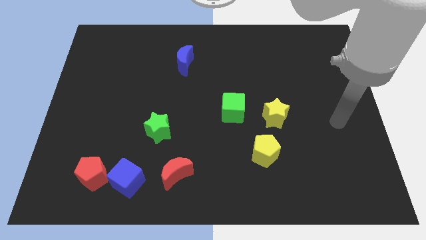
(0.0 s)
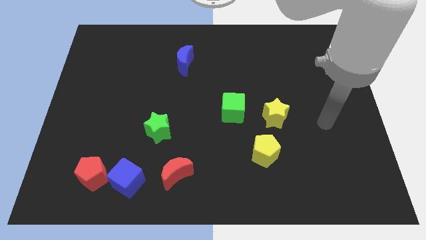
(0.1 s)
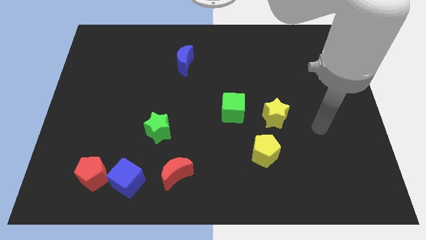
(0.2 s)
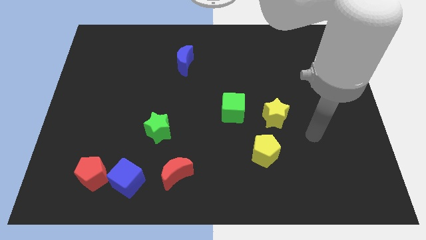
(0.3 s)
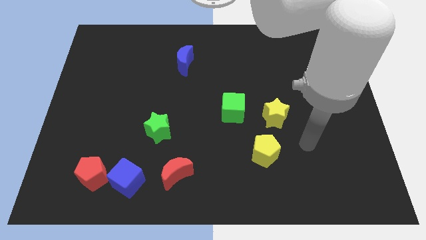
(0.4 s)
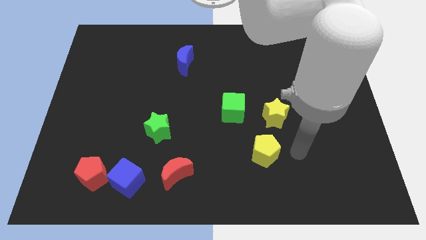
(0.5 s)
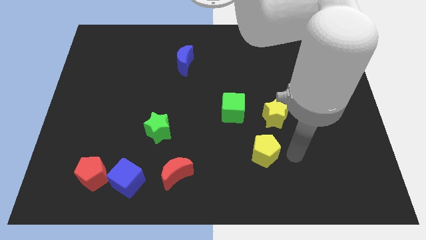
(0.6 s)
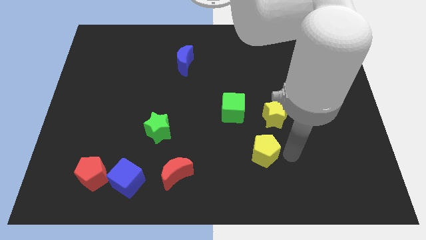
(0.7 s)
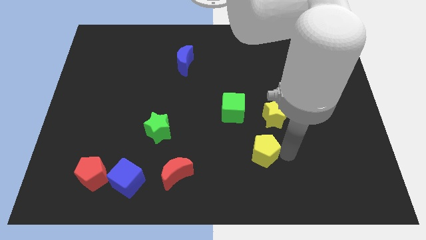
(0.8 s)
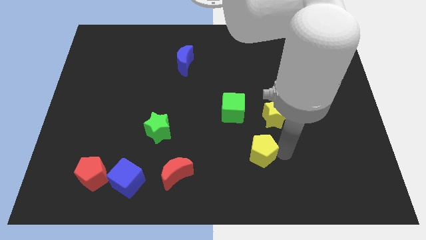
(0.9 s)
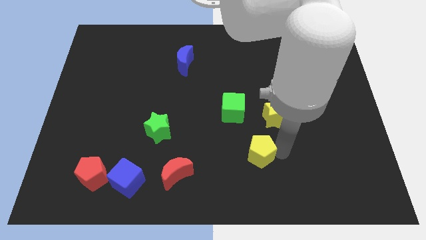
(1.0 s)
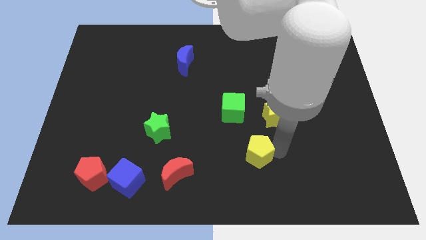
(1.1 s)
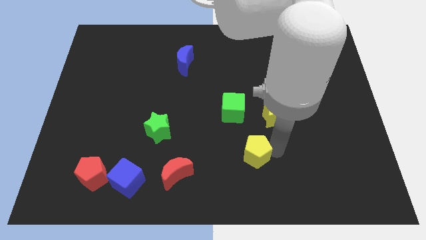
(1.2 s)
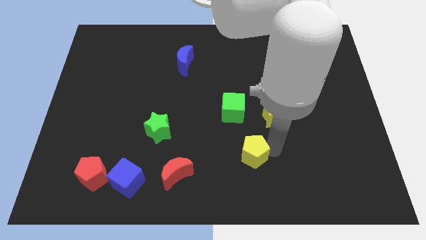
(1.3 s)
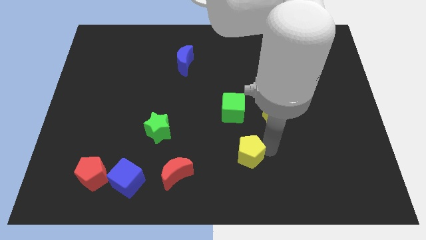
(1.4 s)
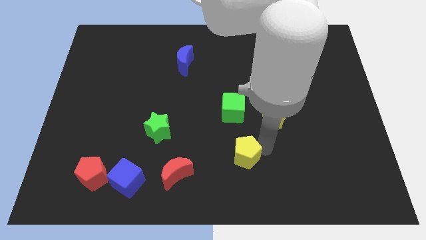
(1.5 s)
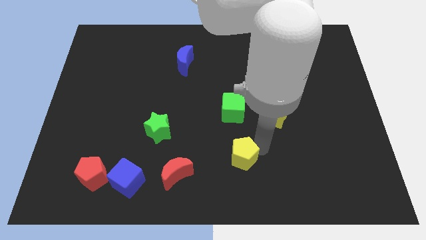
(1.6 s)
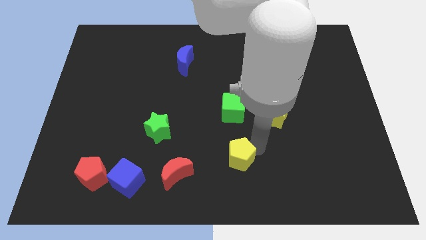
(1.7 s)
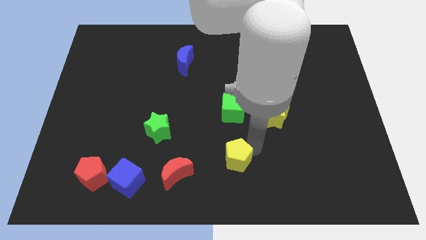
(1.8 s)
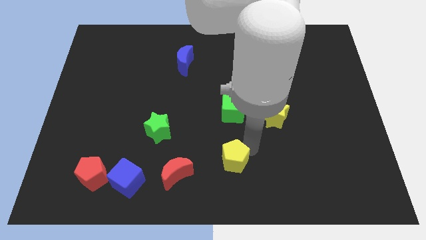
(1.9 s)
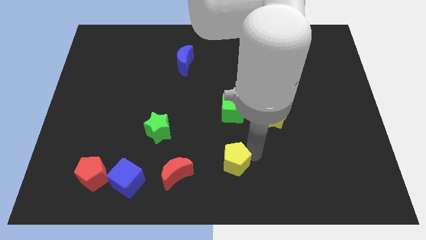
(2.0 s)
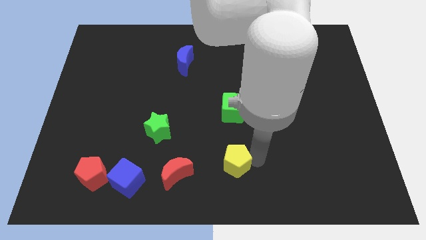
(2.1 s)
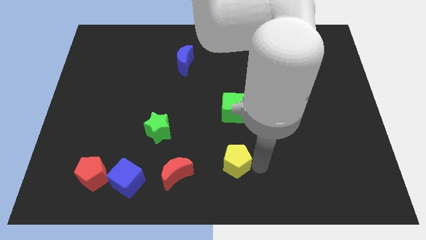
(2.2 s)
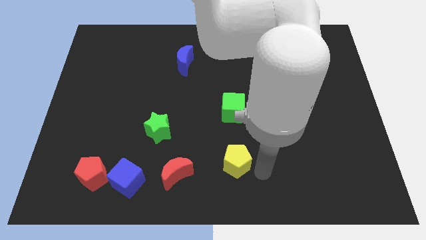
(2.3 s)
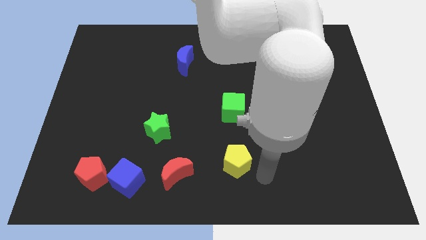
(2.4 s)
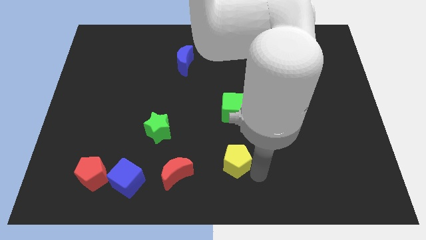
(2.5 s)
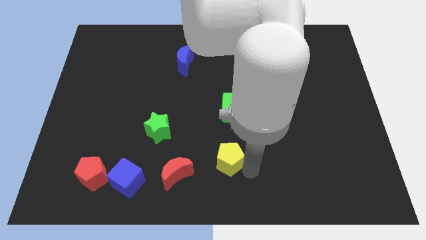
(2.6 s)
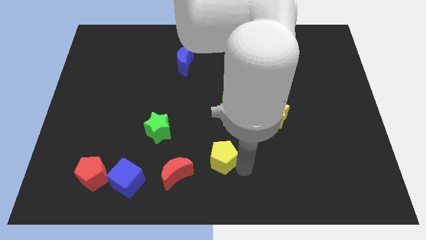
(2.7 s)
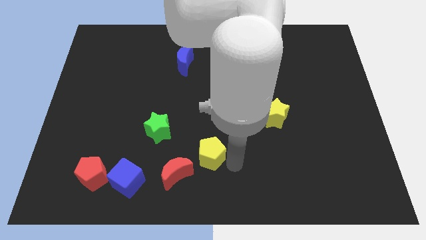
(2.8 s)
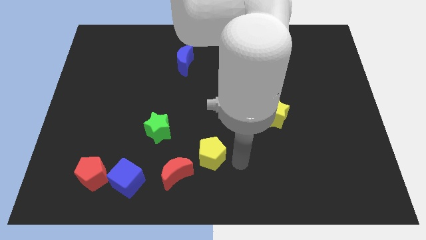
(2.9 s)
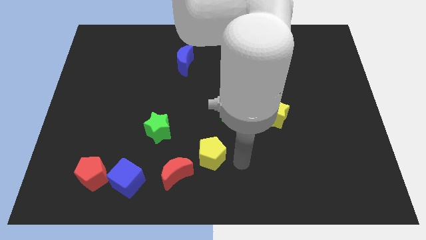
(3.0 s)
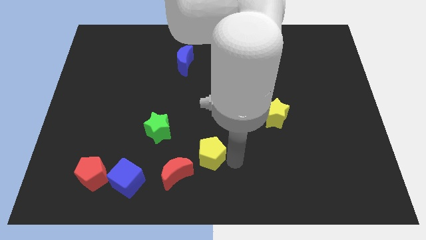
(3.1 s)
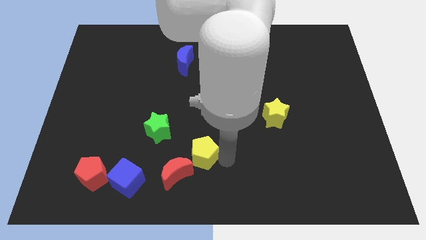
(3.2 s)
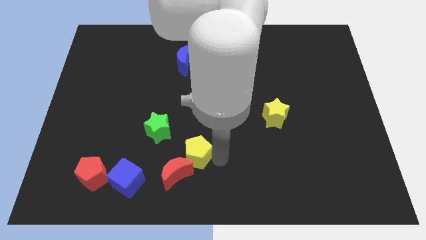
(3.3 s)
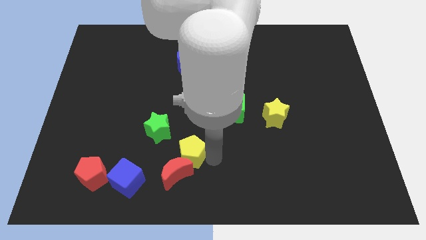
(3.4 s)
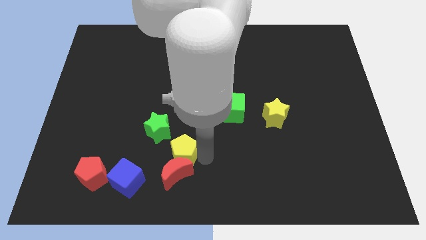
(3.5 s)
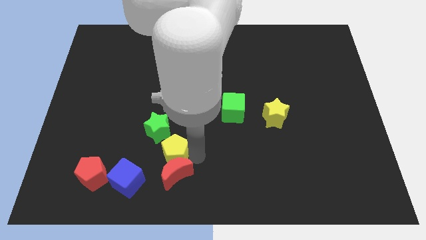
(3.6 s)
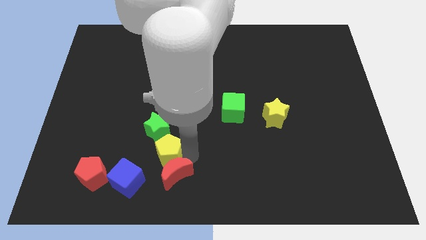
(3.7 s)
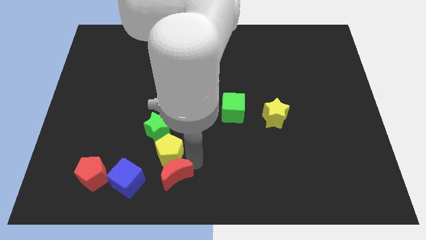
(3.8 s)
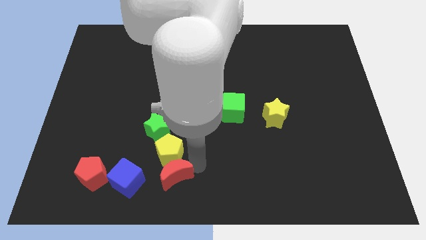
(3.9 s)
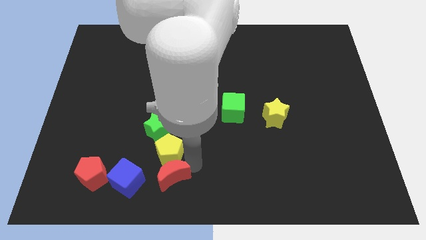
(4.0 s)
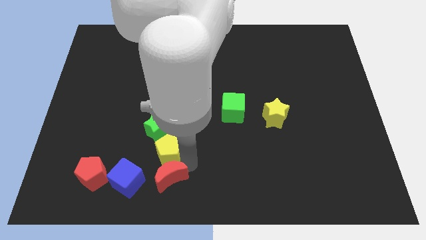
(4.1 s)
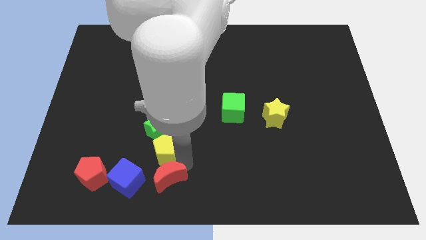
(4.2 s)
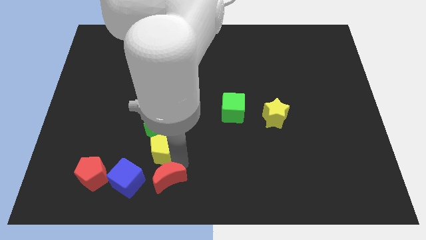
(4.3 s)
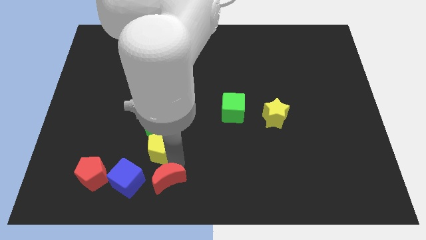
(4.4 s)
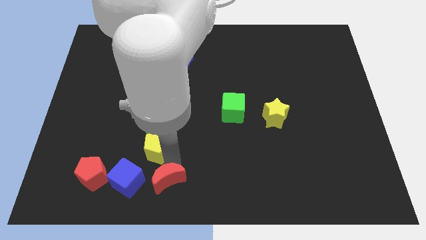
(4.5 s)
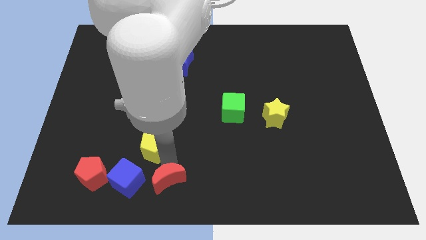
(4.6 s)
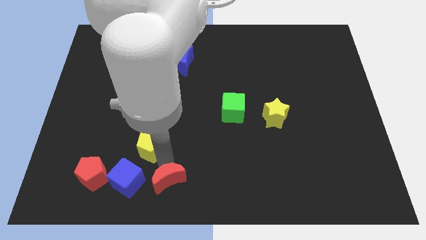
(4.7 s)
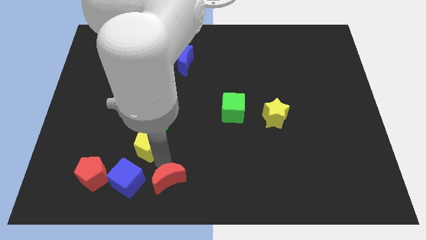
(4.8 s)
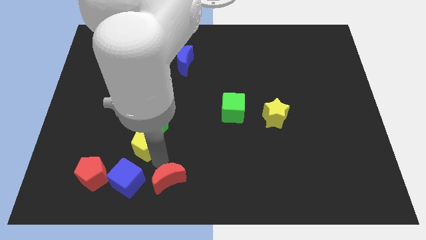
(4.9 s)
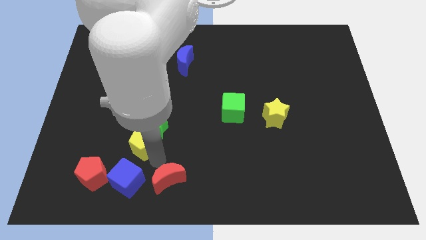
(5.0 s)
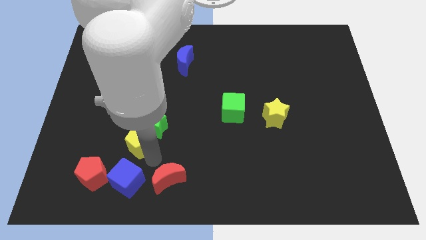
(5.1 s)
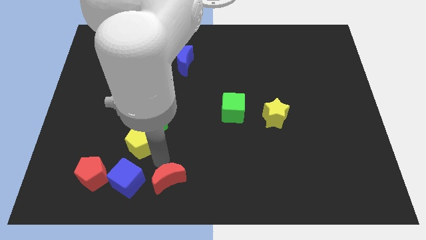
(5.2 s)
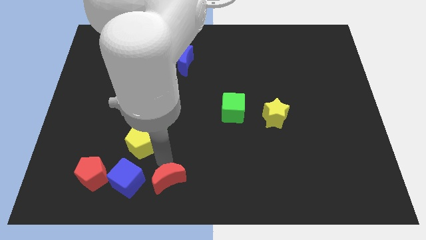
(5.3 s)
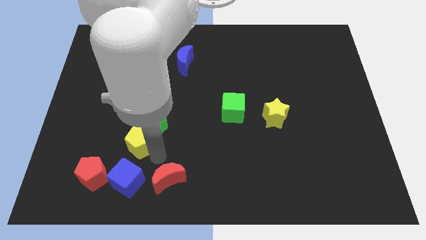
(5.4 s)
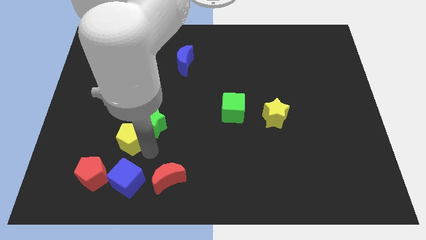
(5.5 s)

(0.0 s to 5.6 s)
put the yellow pentagon just left of the green star

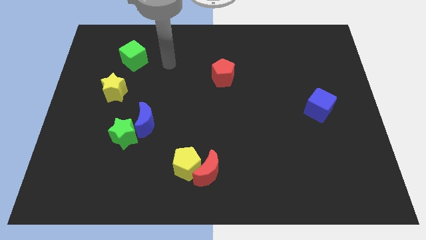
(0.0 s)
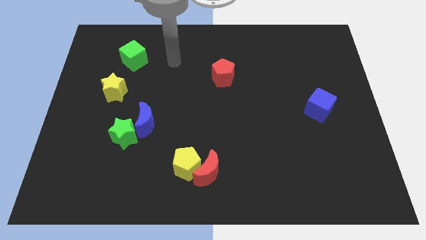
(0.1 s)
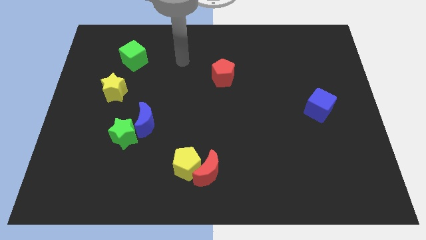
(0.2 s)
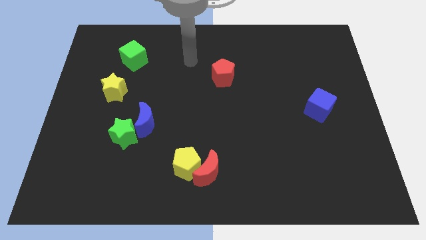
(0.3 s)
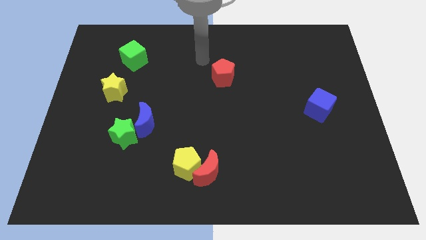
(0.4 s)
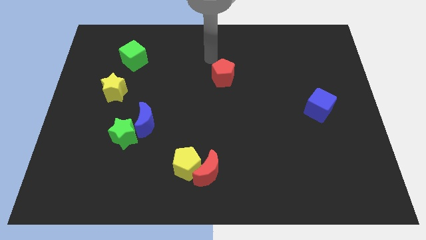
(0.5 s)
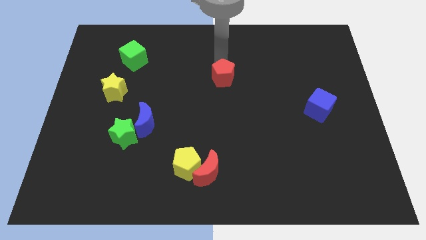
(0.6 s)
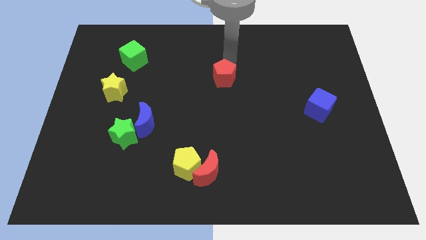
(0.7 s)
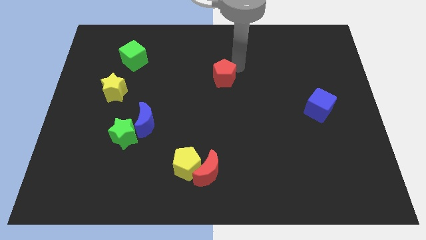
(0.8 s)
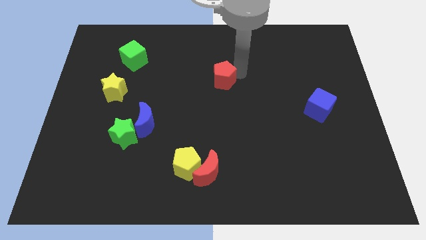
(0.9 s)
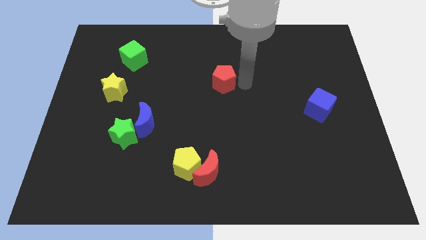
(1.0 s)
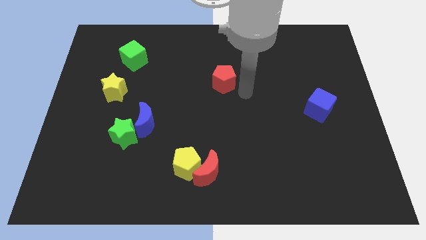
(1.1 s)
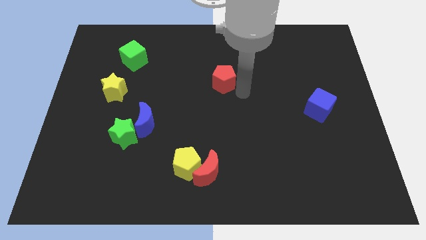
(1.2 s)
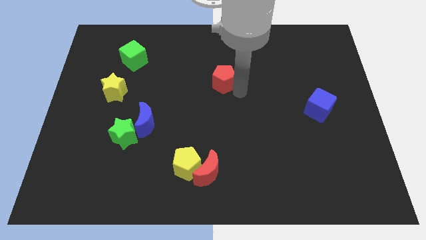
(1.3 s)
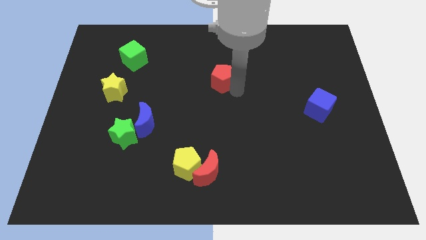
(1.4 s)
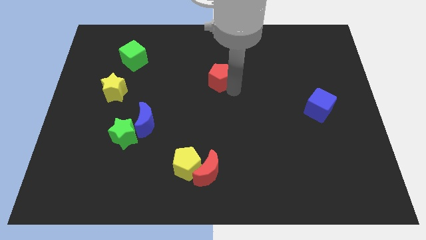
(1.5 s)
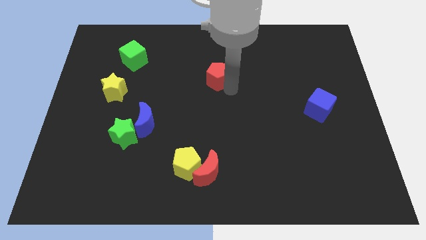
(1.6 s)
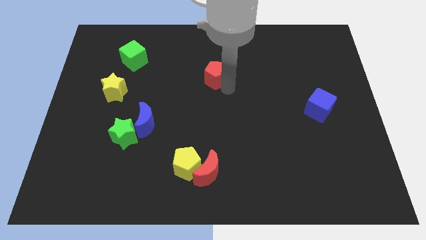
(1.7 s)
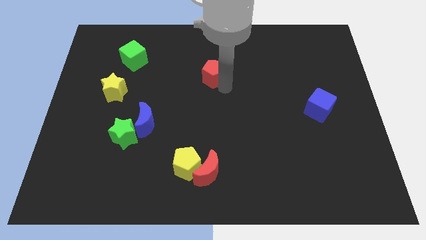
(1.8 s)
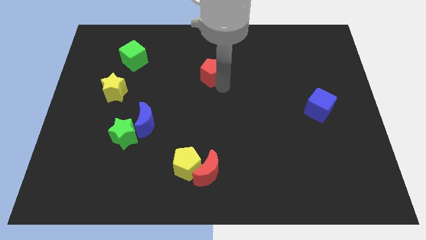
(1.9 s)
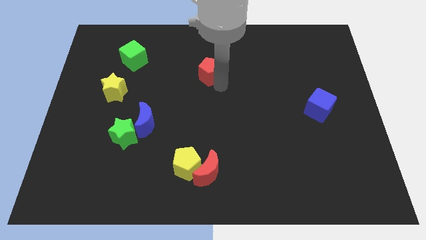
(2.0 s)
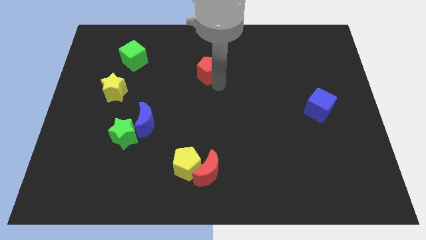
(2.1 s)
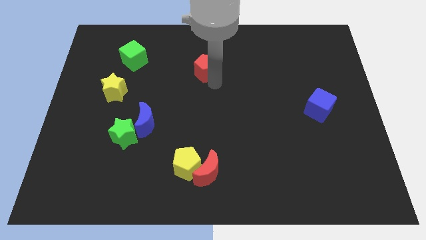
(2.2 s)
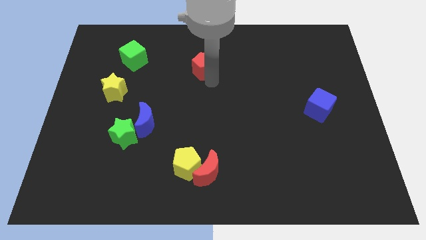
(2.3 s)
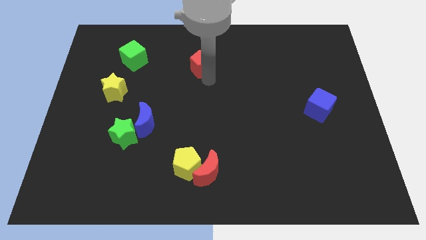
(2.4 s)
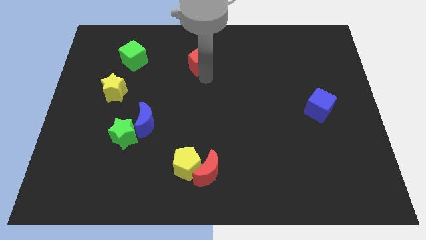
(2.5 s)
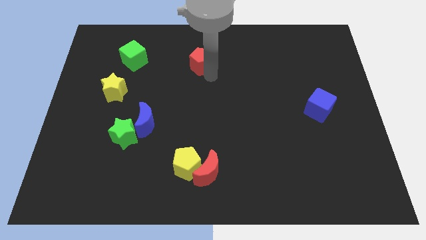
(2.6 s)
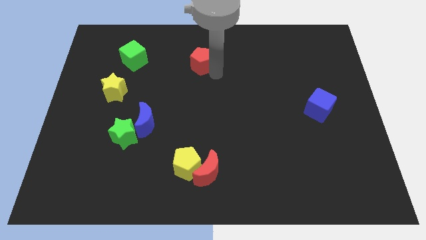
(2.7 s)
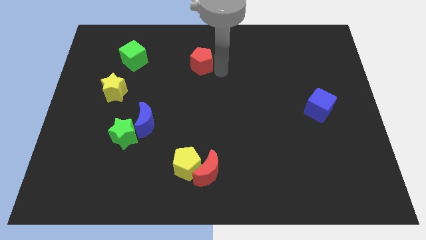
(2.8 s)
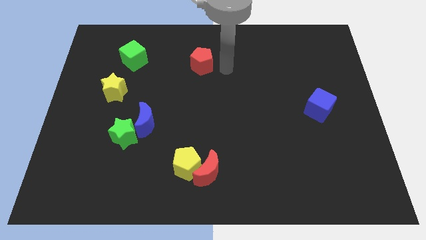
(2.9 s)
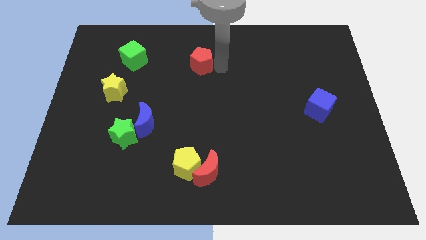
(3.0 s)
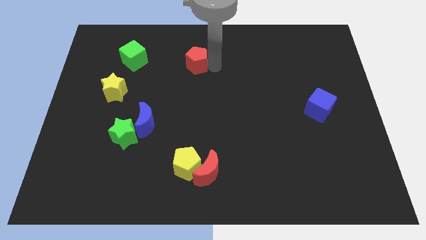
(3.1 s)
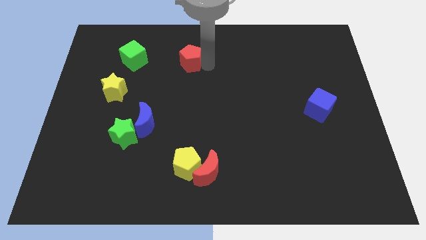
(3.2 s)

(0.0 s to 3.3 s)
push the red pentagon just right of the green cube
